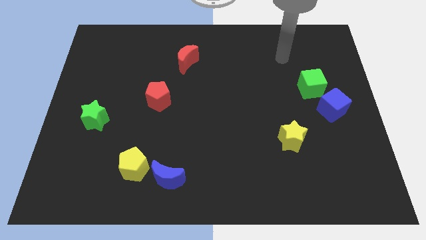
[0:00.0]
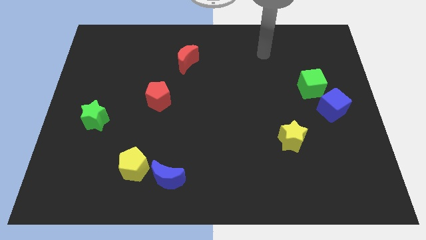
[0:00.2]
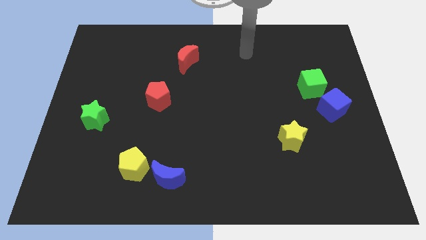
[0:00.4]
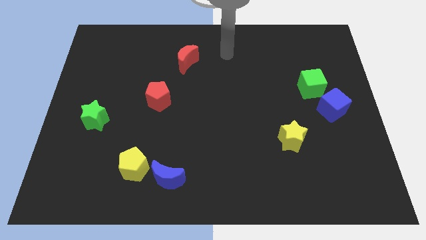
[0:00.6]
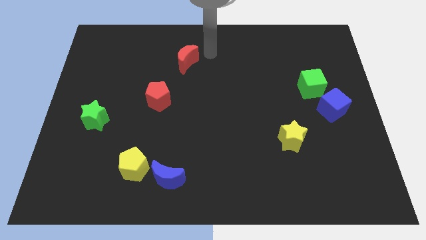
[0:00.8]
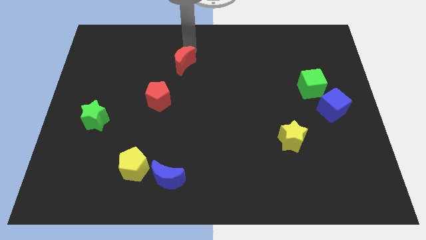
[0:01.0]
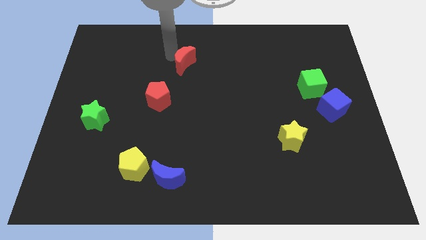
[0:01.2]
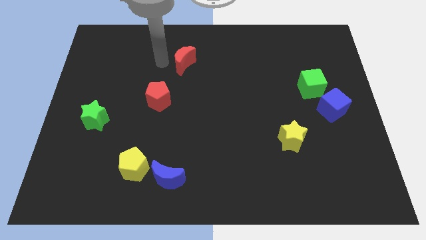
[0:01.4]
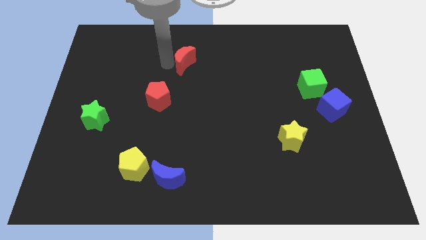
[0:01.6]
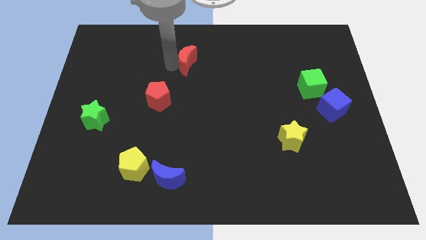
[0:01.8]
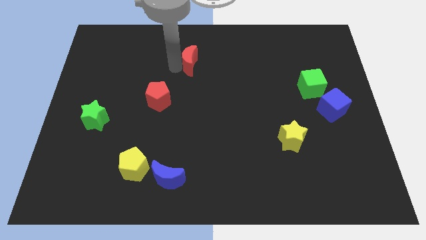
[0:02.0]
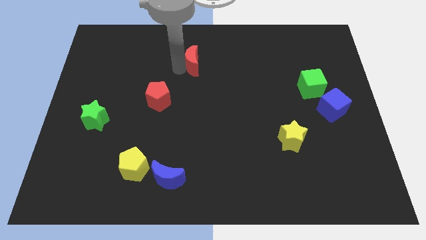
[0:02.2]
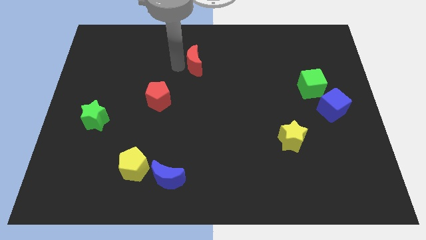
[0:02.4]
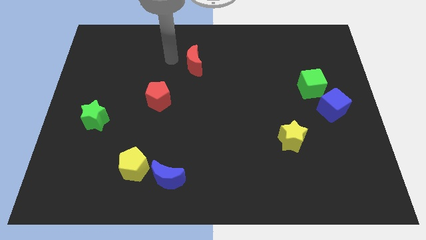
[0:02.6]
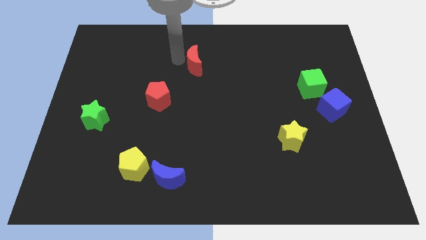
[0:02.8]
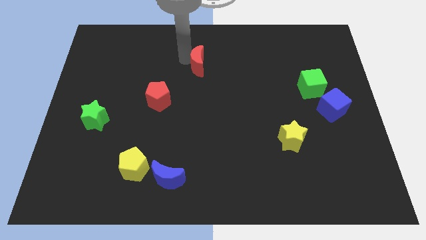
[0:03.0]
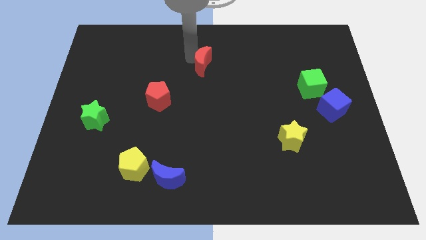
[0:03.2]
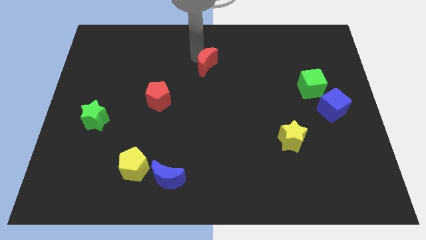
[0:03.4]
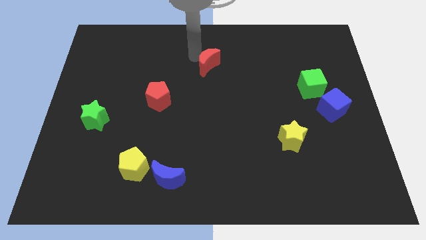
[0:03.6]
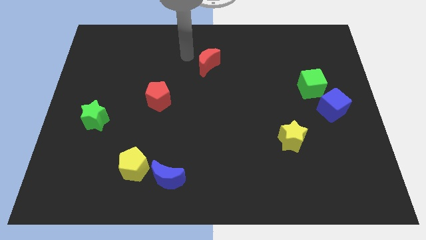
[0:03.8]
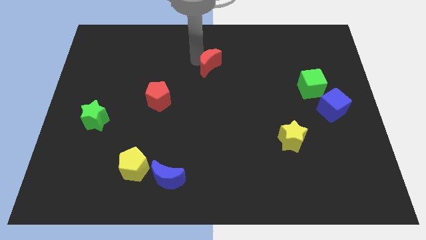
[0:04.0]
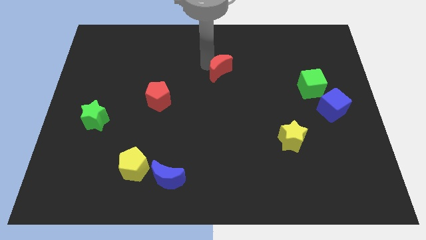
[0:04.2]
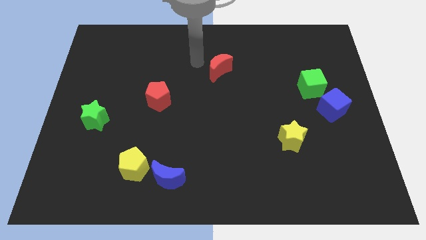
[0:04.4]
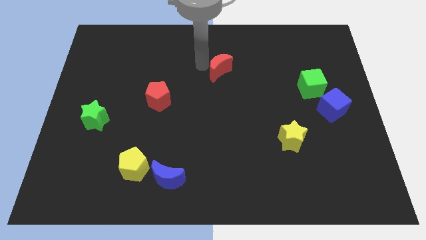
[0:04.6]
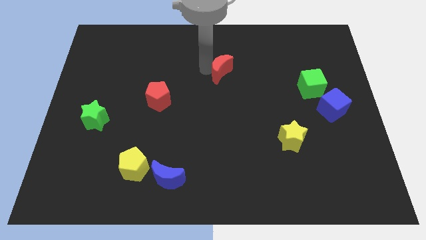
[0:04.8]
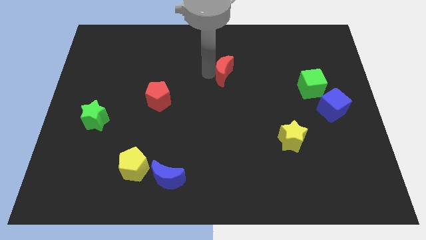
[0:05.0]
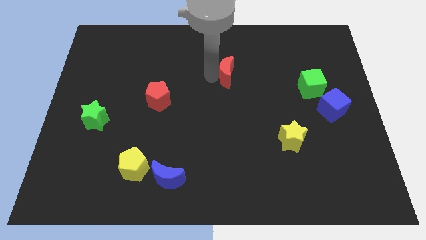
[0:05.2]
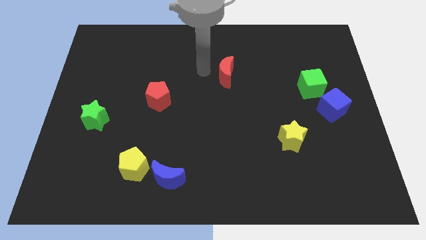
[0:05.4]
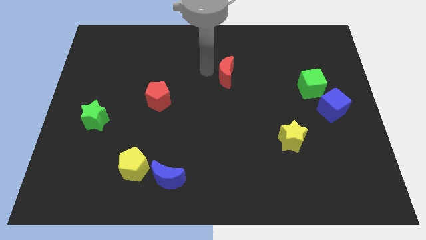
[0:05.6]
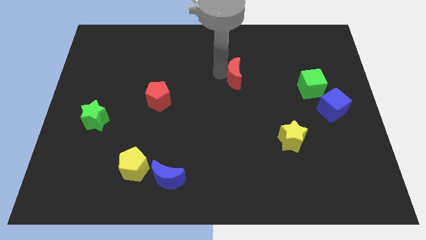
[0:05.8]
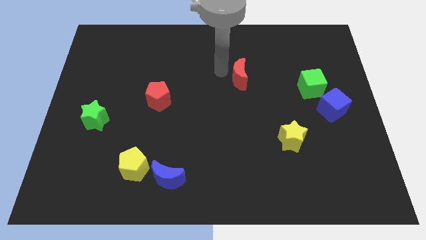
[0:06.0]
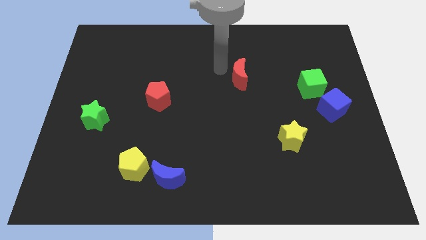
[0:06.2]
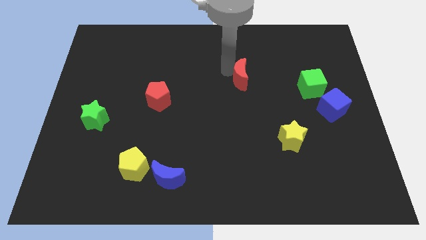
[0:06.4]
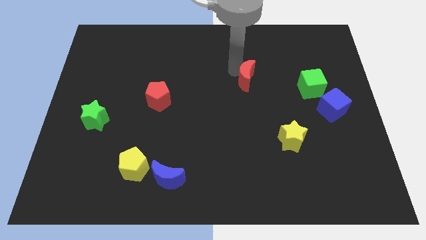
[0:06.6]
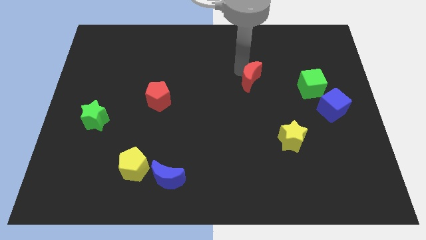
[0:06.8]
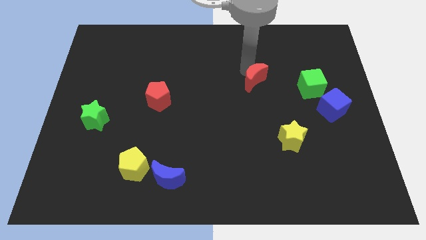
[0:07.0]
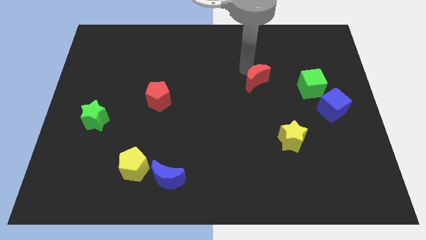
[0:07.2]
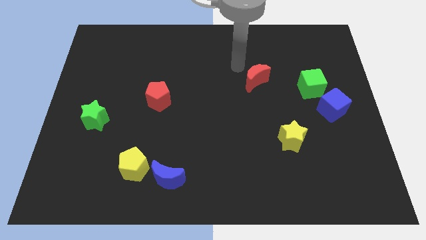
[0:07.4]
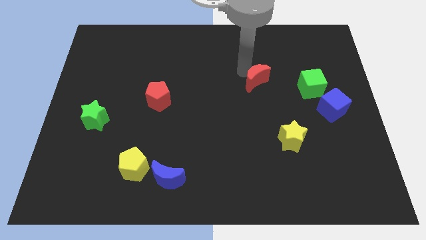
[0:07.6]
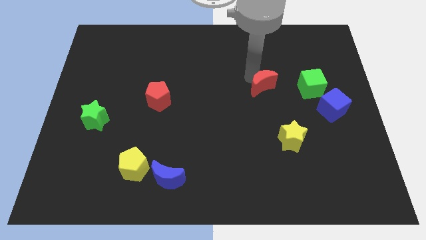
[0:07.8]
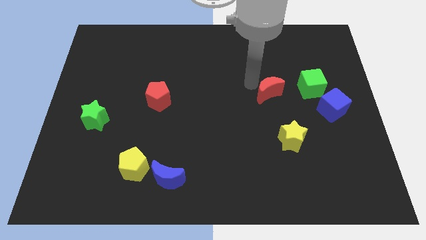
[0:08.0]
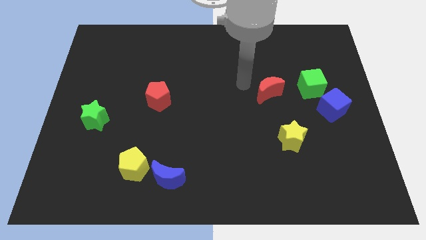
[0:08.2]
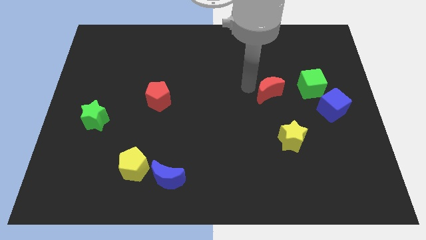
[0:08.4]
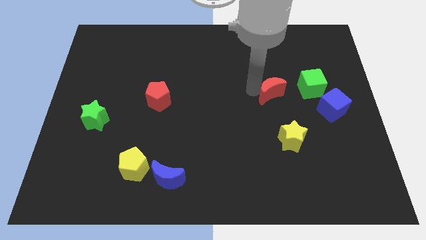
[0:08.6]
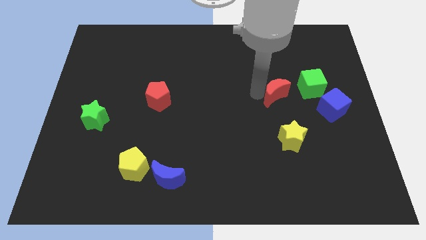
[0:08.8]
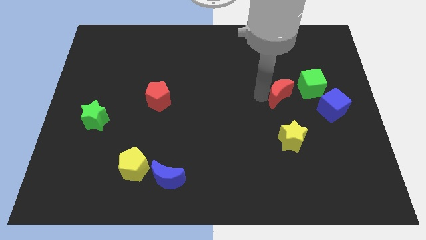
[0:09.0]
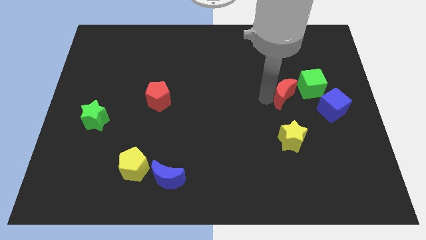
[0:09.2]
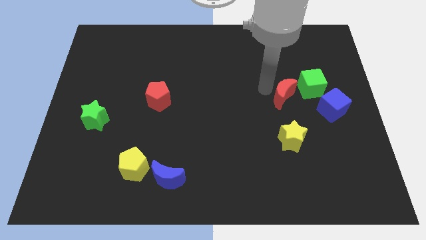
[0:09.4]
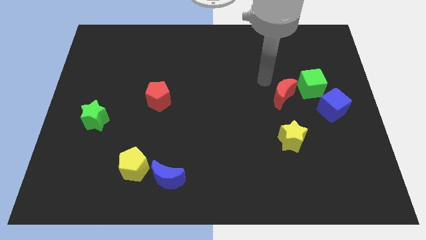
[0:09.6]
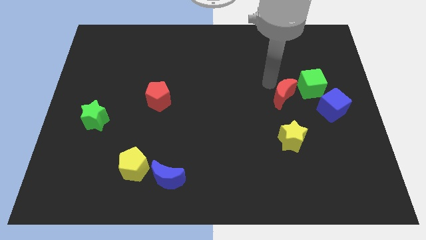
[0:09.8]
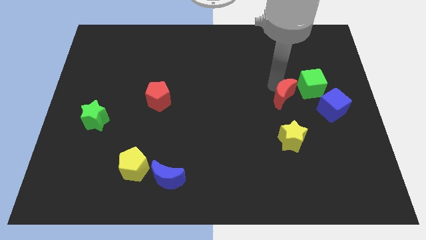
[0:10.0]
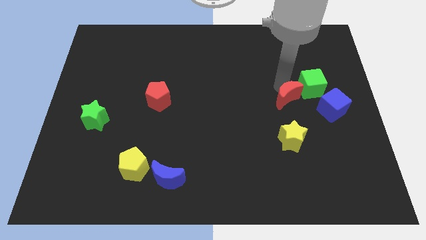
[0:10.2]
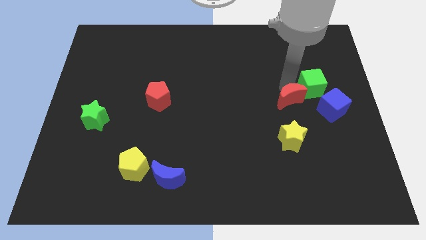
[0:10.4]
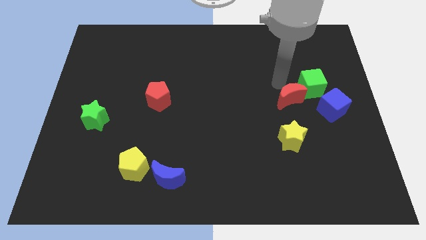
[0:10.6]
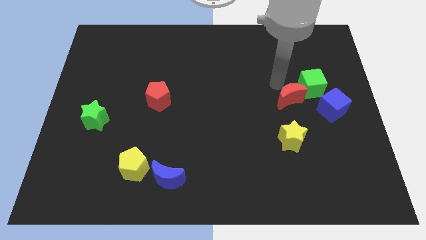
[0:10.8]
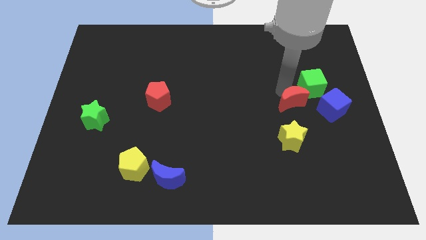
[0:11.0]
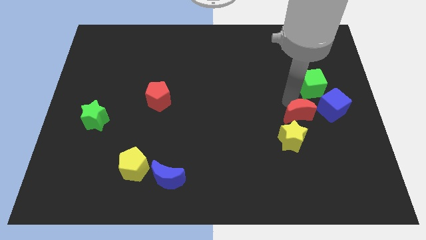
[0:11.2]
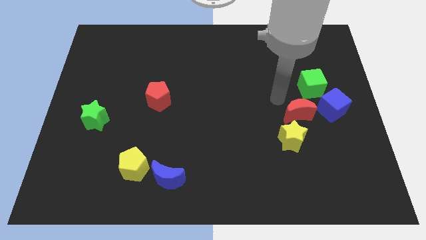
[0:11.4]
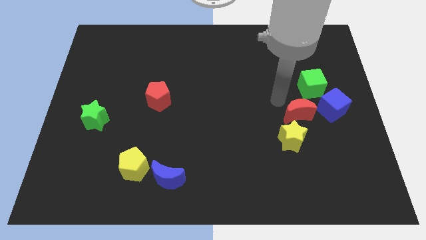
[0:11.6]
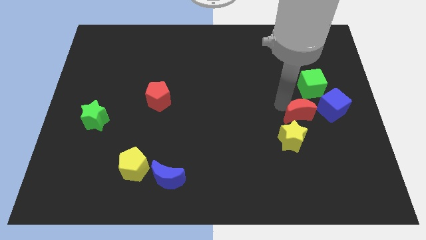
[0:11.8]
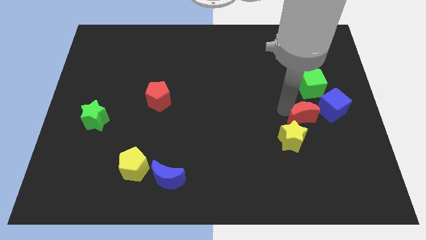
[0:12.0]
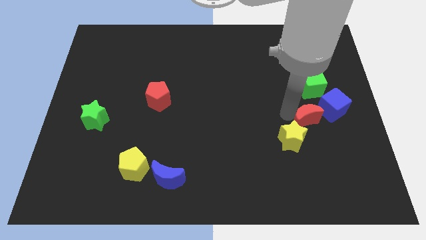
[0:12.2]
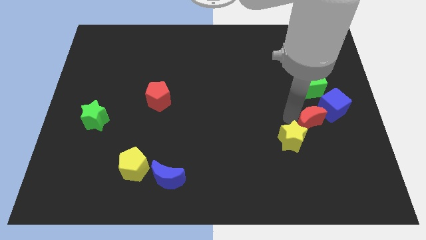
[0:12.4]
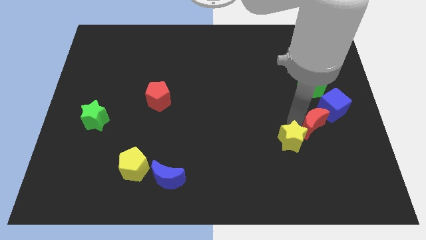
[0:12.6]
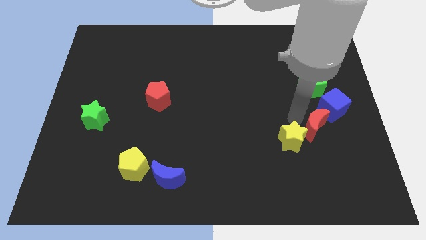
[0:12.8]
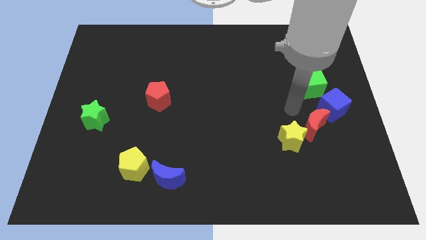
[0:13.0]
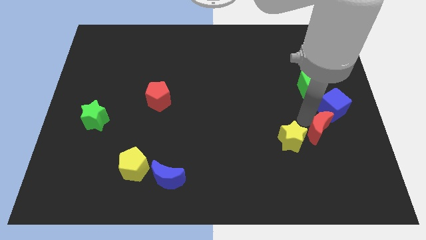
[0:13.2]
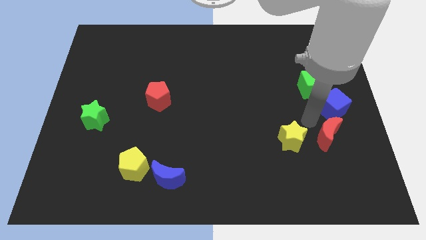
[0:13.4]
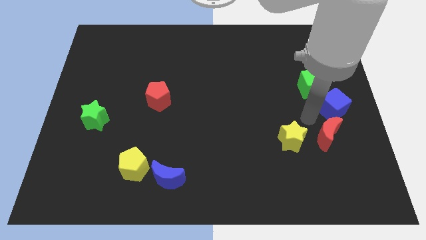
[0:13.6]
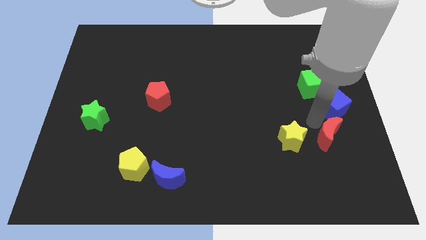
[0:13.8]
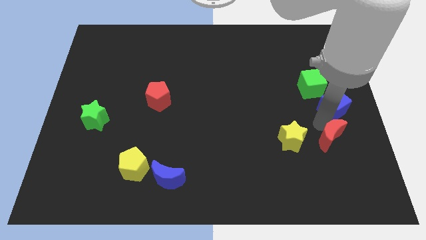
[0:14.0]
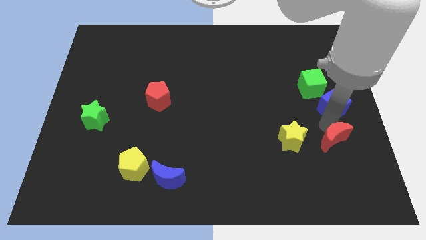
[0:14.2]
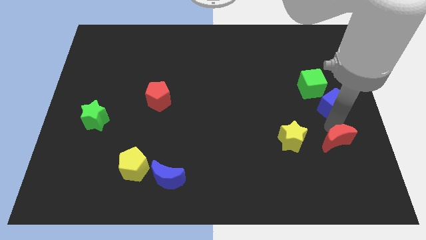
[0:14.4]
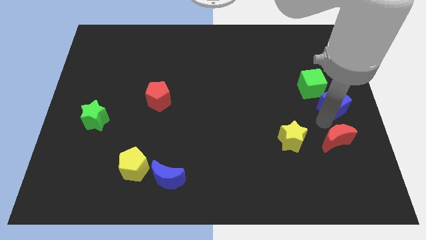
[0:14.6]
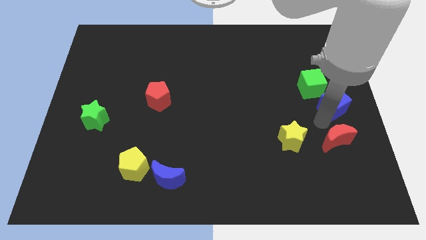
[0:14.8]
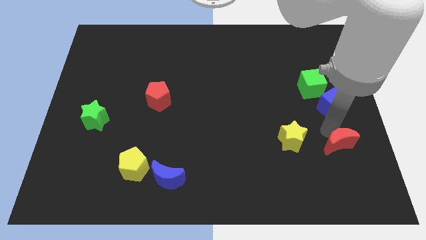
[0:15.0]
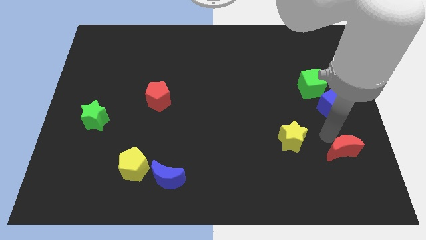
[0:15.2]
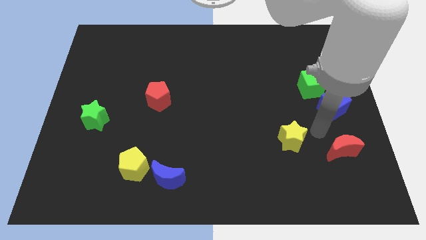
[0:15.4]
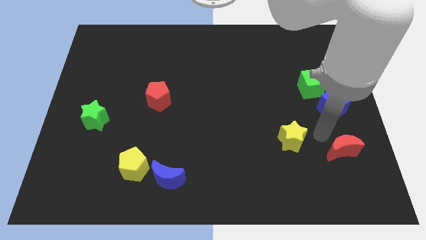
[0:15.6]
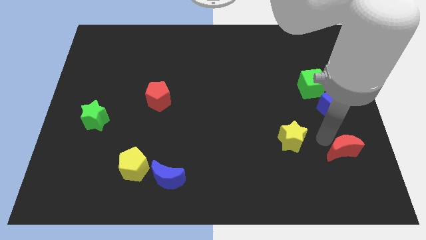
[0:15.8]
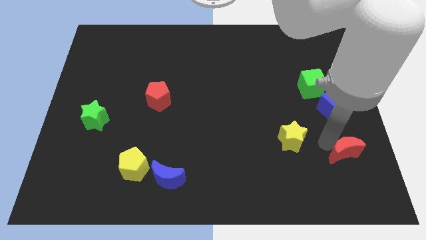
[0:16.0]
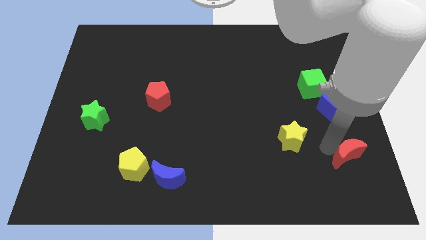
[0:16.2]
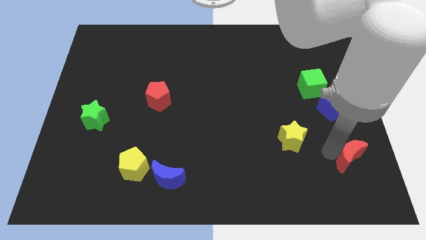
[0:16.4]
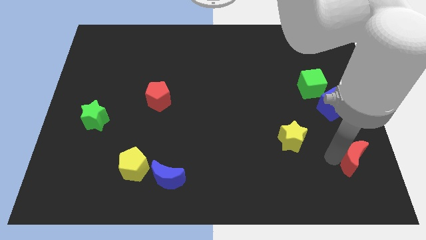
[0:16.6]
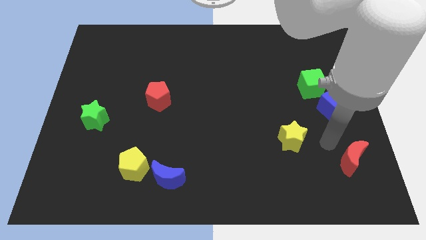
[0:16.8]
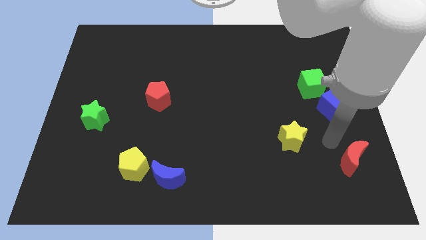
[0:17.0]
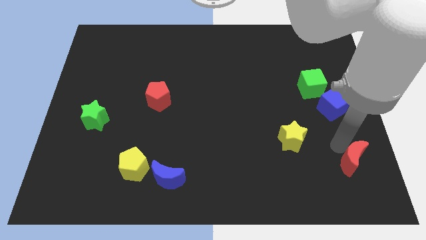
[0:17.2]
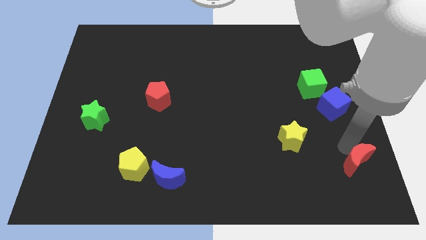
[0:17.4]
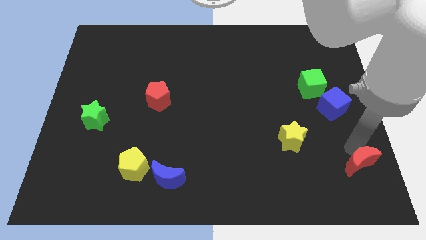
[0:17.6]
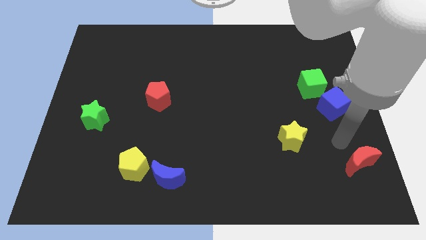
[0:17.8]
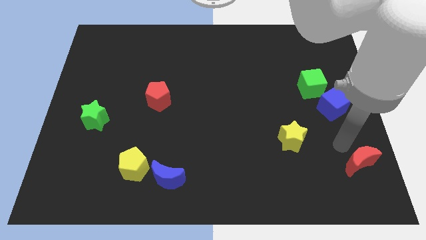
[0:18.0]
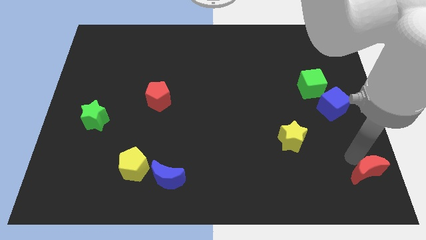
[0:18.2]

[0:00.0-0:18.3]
slide the red moon to the bottom right of the board
